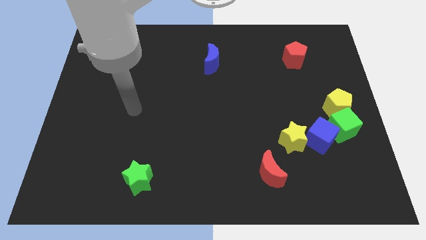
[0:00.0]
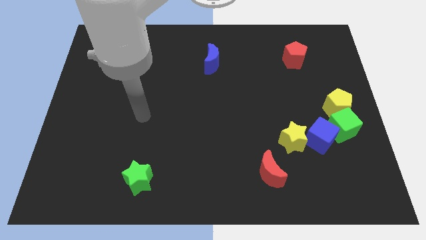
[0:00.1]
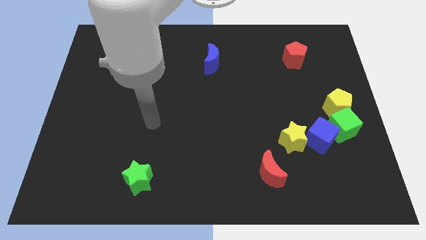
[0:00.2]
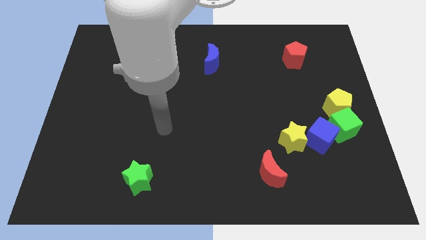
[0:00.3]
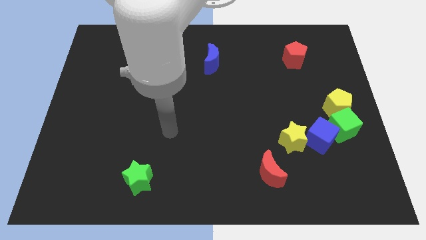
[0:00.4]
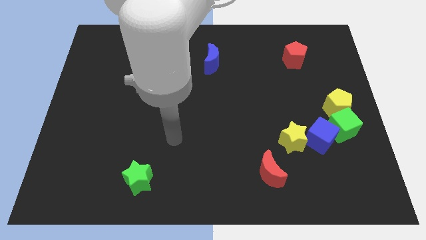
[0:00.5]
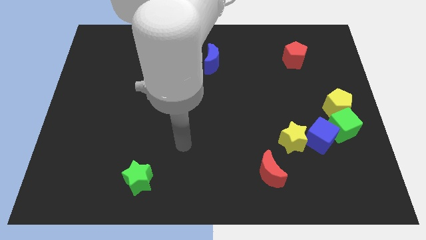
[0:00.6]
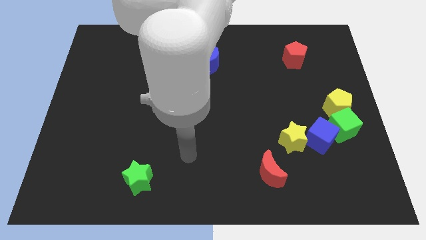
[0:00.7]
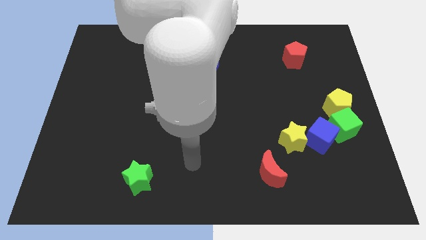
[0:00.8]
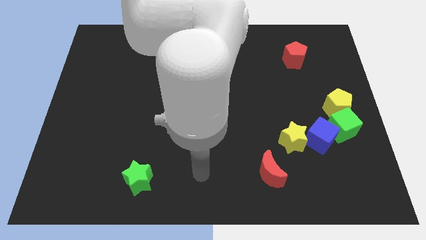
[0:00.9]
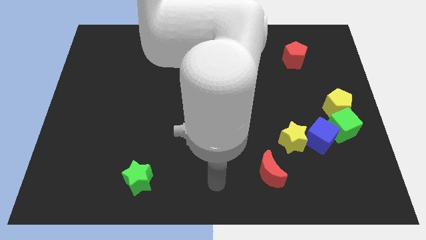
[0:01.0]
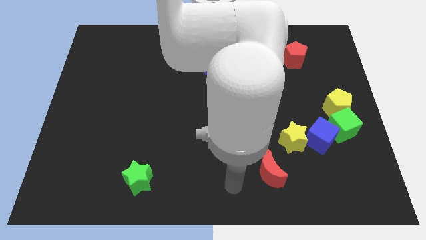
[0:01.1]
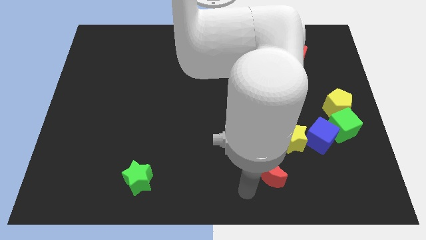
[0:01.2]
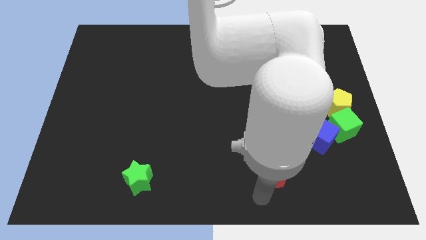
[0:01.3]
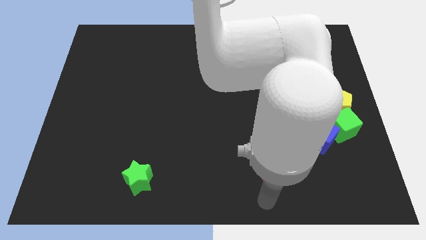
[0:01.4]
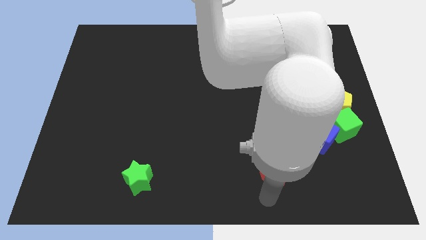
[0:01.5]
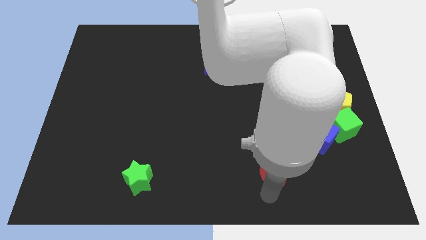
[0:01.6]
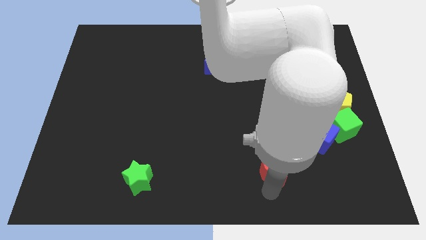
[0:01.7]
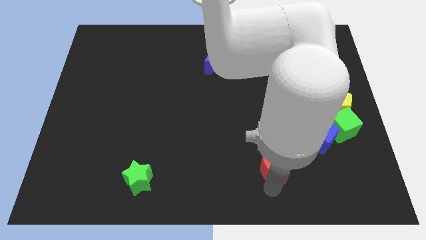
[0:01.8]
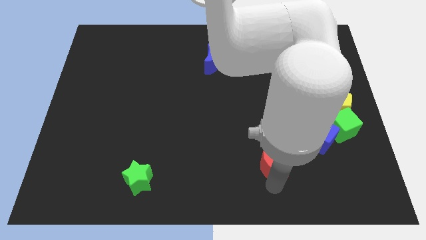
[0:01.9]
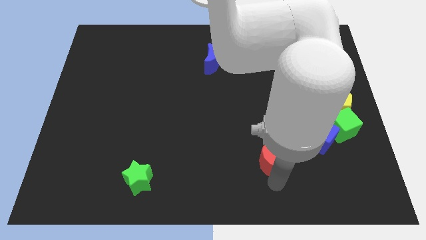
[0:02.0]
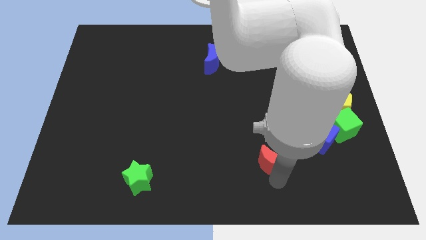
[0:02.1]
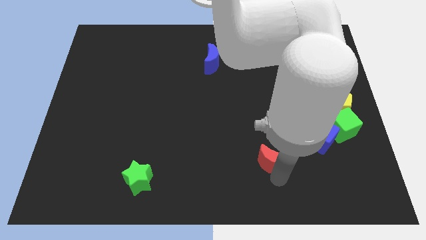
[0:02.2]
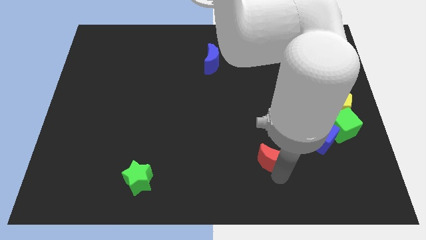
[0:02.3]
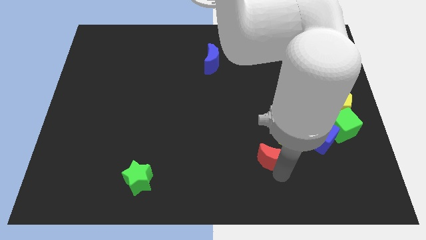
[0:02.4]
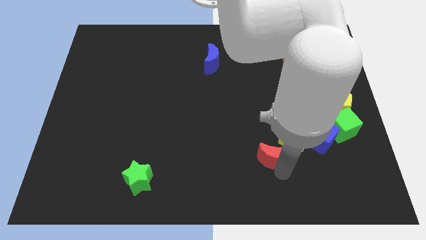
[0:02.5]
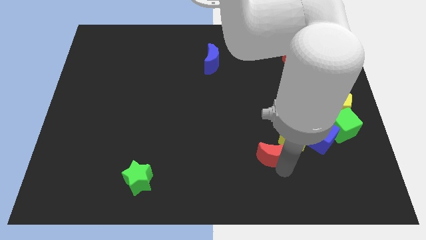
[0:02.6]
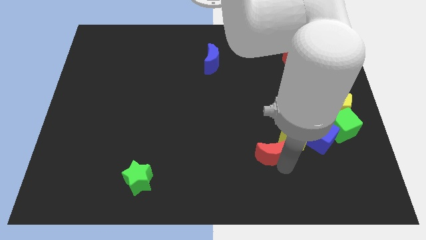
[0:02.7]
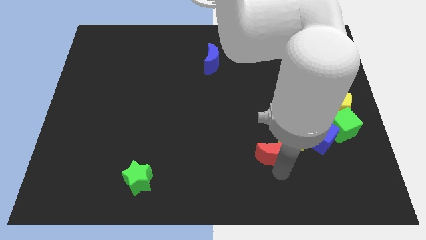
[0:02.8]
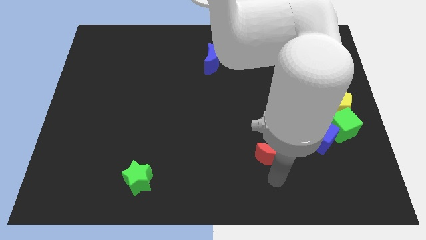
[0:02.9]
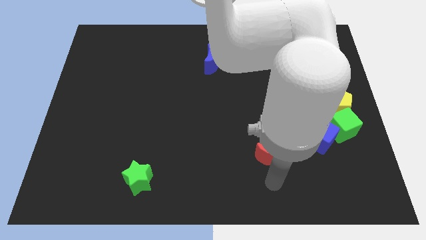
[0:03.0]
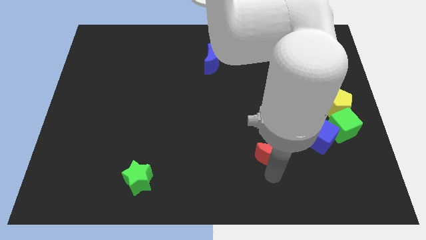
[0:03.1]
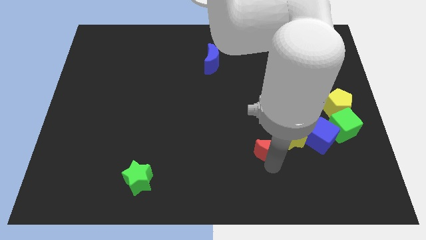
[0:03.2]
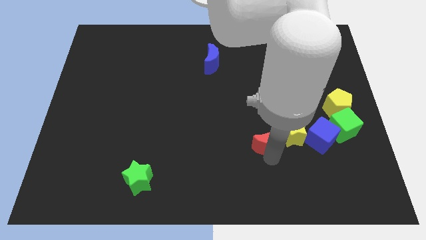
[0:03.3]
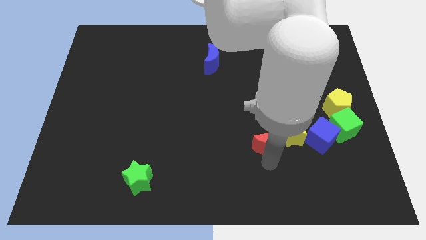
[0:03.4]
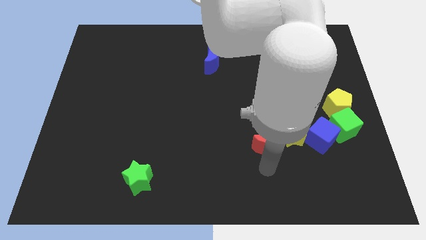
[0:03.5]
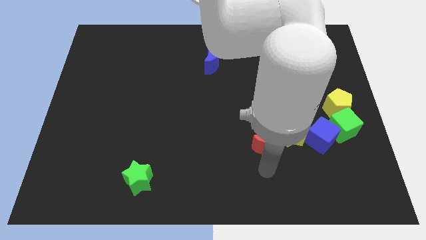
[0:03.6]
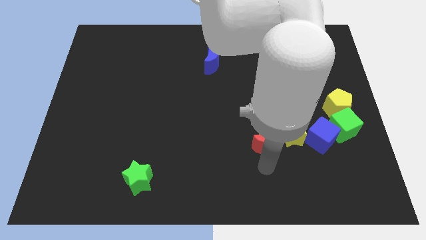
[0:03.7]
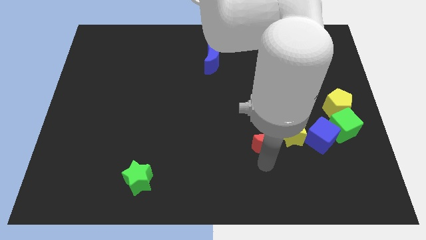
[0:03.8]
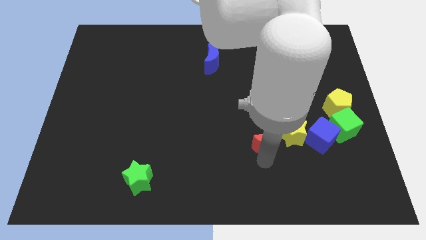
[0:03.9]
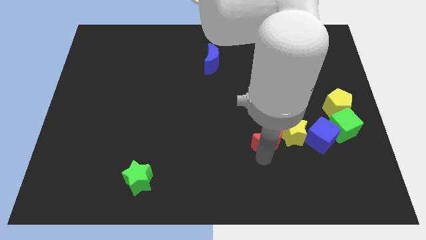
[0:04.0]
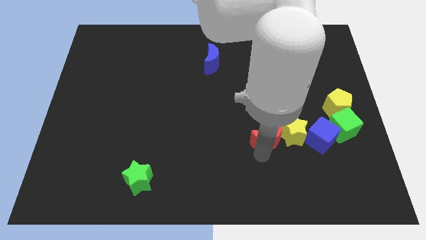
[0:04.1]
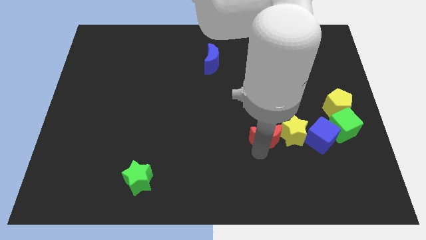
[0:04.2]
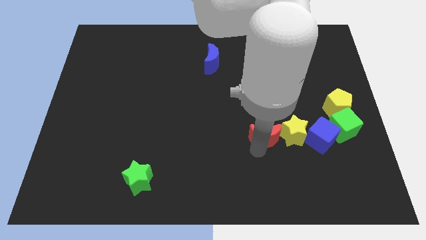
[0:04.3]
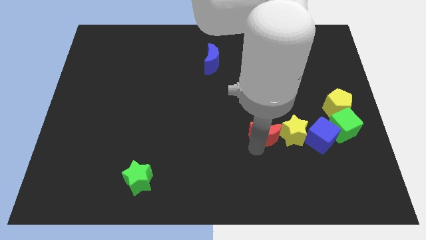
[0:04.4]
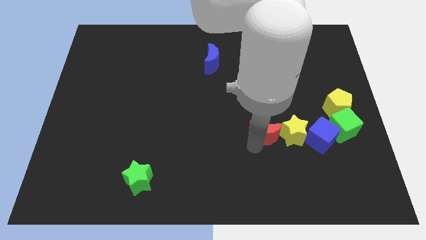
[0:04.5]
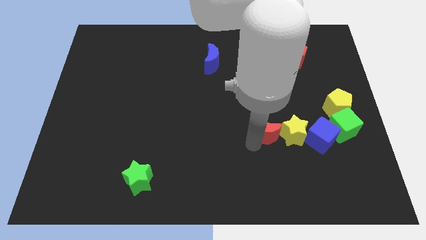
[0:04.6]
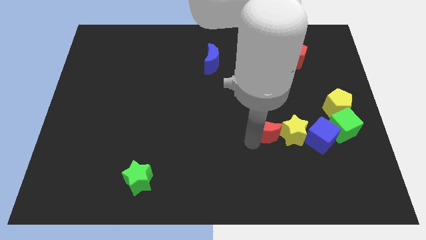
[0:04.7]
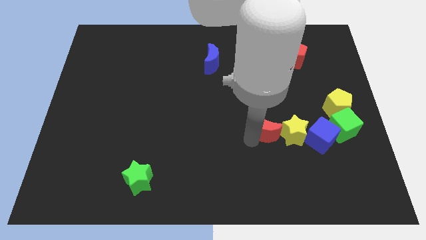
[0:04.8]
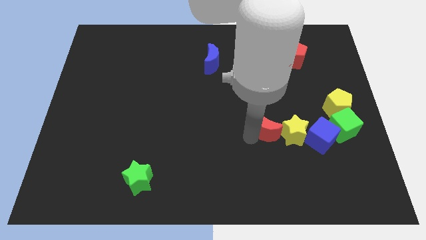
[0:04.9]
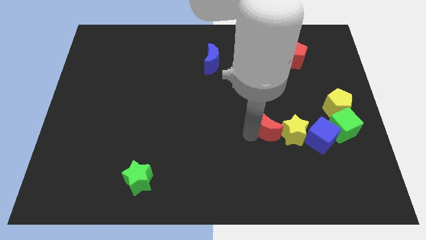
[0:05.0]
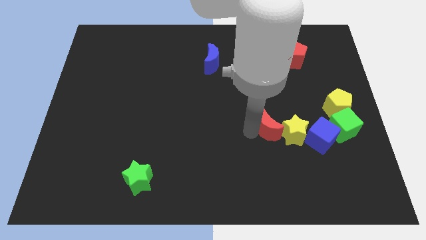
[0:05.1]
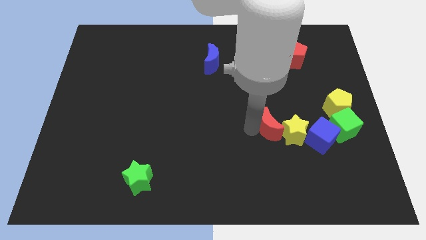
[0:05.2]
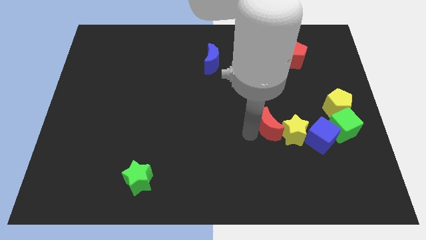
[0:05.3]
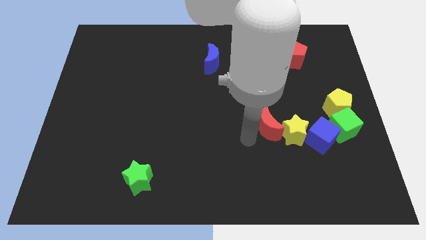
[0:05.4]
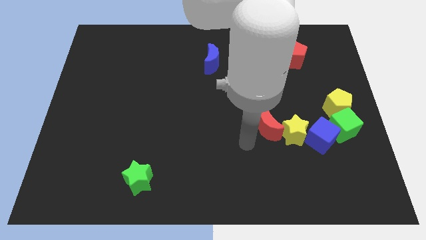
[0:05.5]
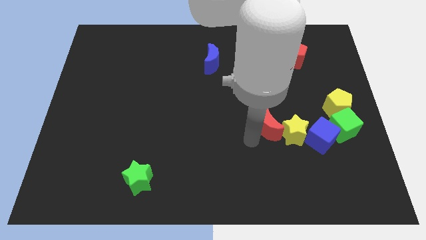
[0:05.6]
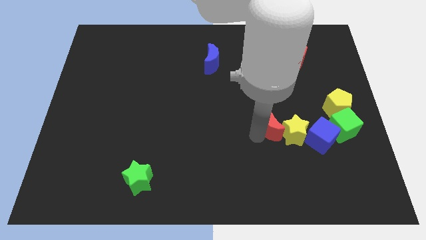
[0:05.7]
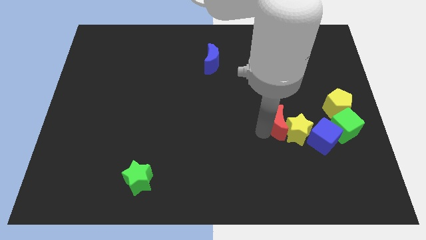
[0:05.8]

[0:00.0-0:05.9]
move the red moon up and to the right diagonally a little bit

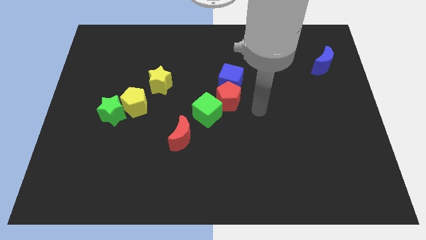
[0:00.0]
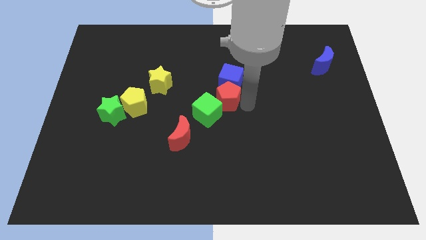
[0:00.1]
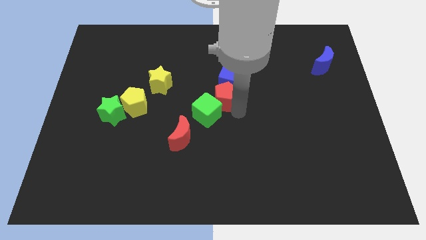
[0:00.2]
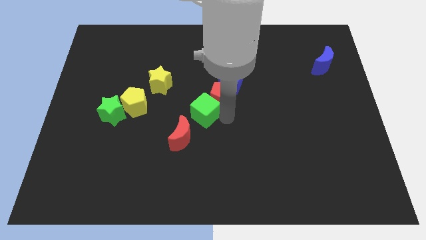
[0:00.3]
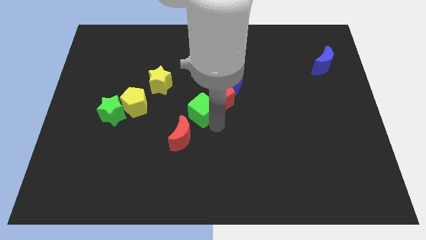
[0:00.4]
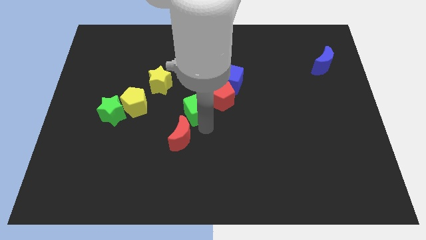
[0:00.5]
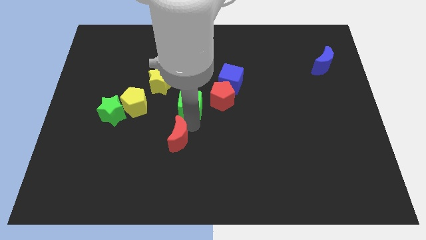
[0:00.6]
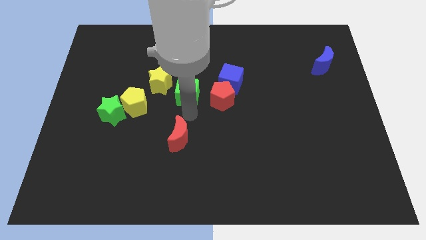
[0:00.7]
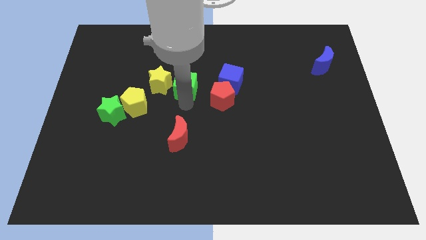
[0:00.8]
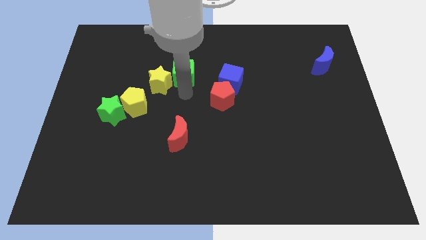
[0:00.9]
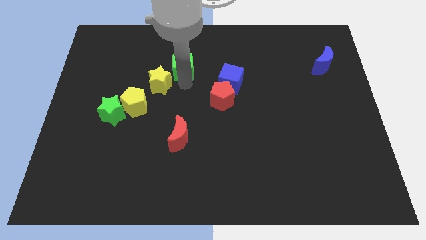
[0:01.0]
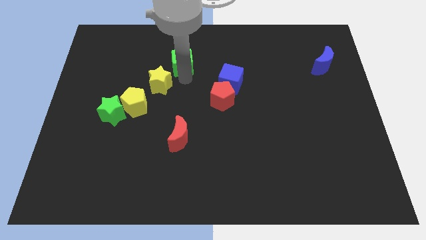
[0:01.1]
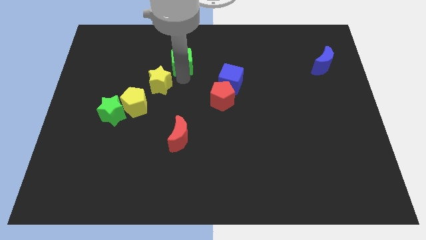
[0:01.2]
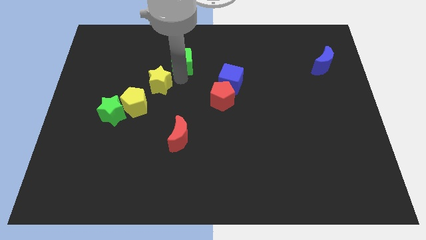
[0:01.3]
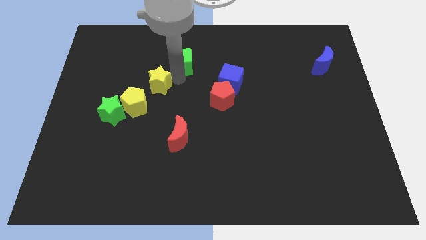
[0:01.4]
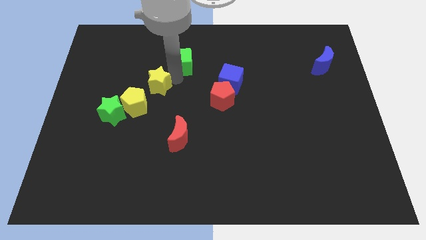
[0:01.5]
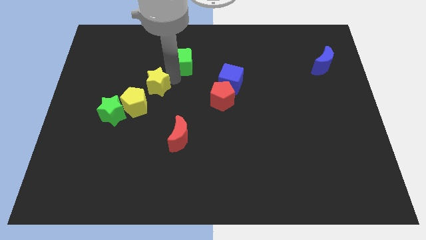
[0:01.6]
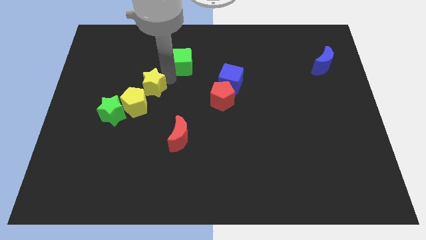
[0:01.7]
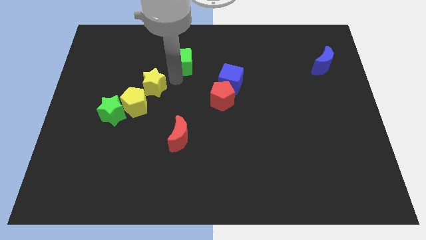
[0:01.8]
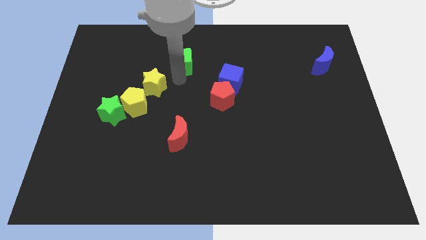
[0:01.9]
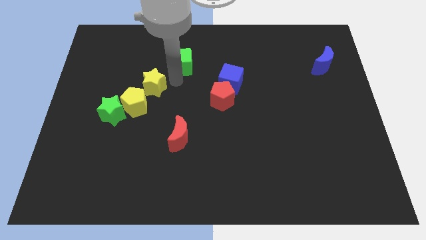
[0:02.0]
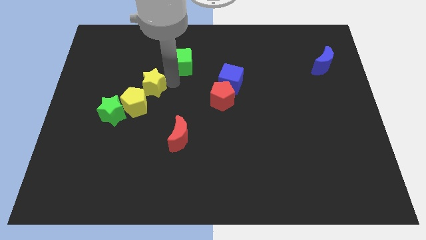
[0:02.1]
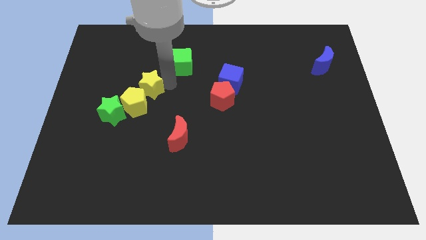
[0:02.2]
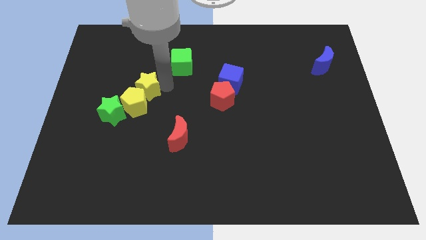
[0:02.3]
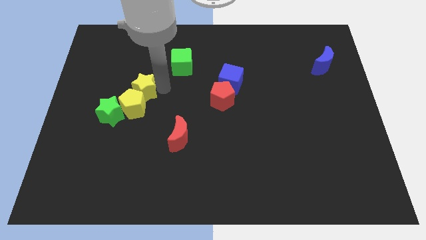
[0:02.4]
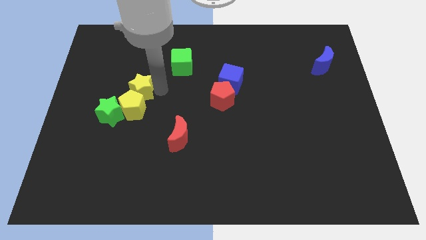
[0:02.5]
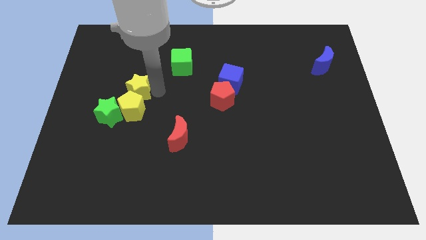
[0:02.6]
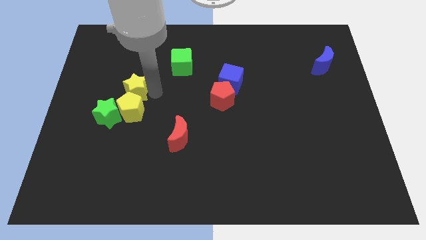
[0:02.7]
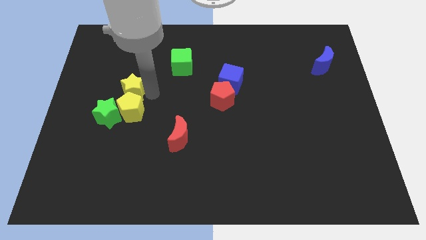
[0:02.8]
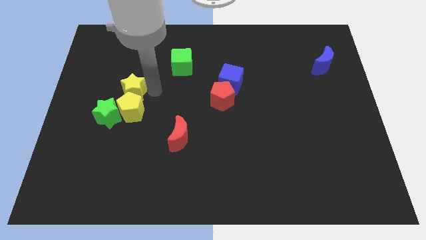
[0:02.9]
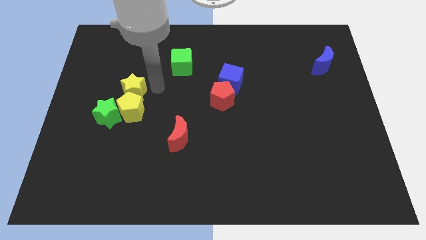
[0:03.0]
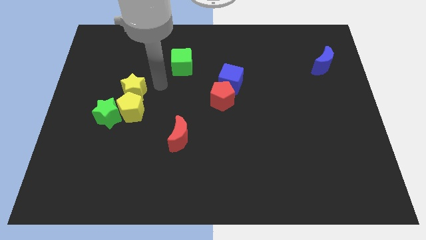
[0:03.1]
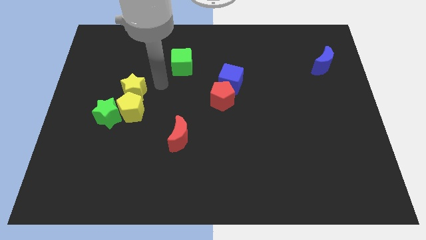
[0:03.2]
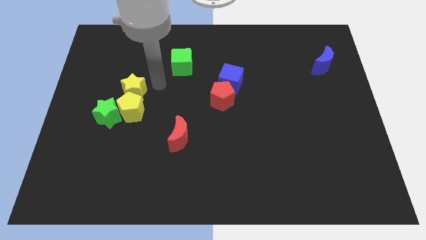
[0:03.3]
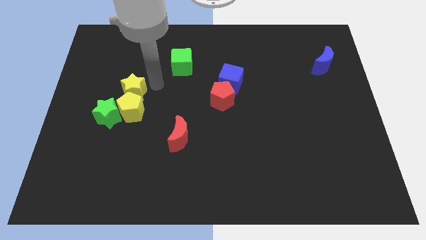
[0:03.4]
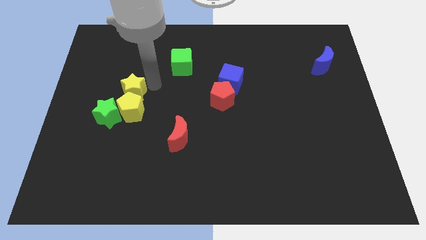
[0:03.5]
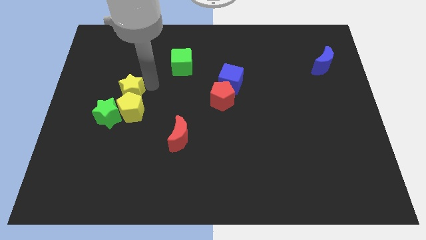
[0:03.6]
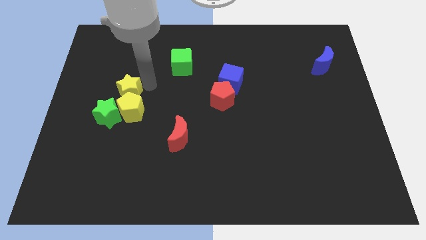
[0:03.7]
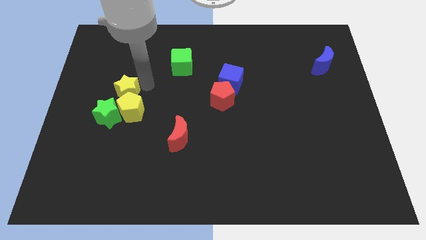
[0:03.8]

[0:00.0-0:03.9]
slide the yellow star down and then left a little
